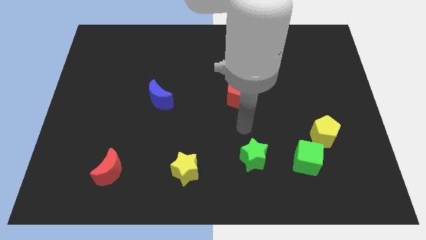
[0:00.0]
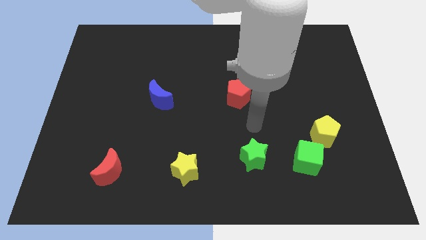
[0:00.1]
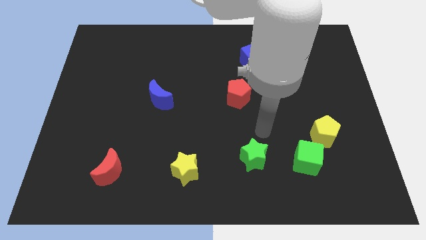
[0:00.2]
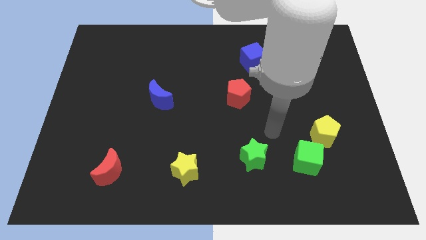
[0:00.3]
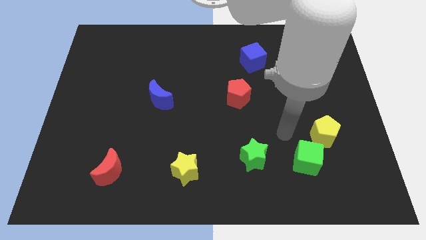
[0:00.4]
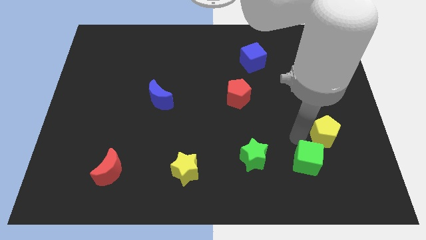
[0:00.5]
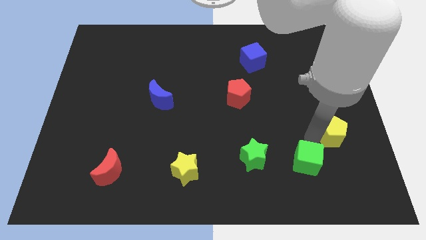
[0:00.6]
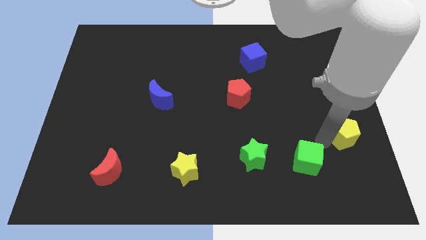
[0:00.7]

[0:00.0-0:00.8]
separate the green cube from the yellow pentagon

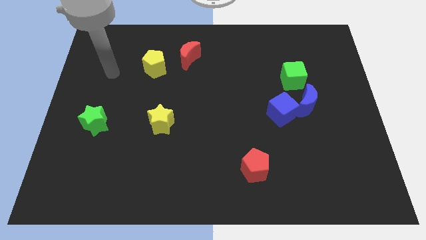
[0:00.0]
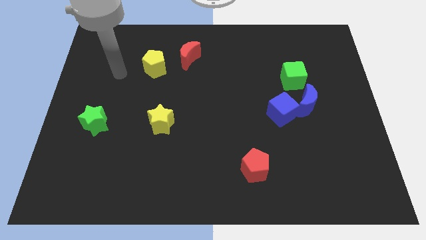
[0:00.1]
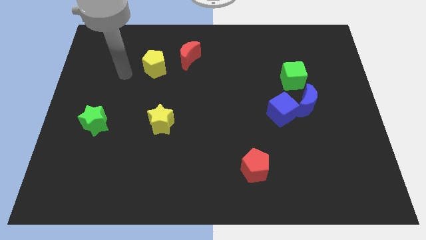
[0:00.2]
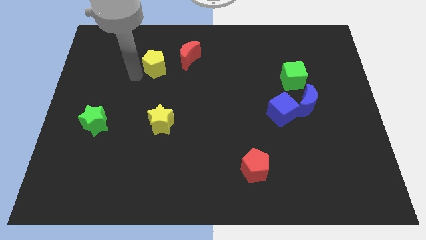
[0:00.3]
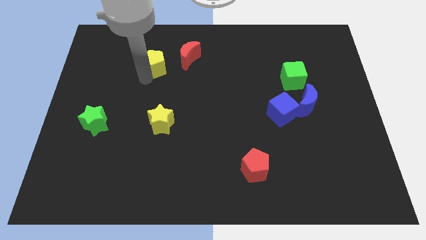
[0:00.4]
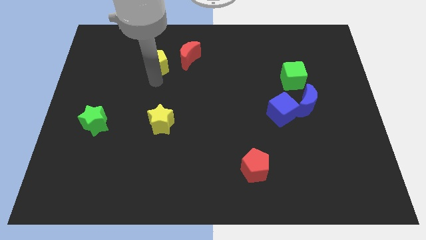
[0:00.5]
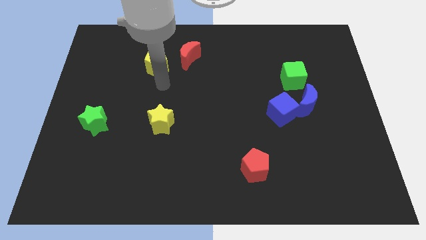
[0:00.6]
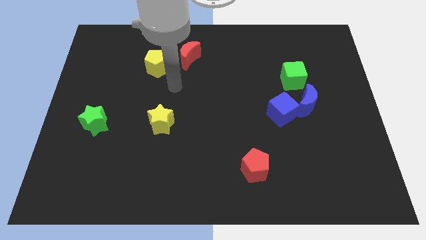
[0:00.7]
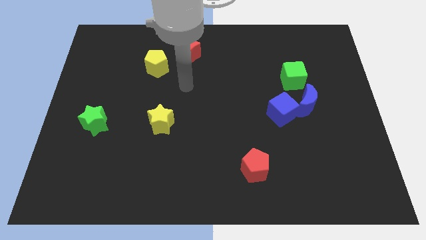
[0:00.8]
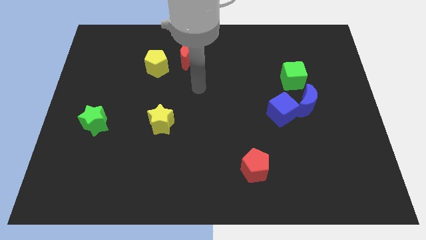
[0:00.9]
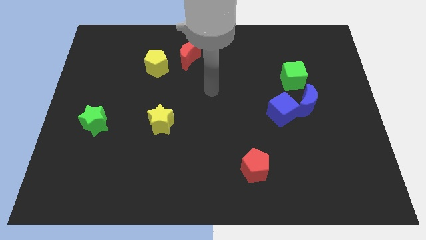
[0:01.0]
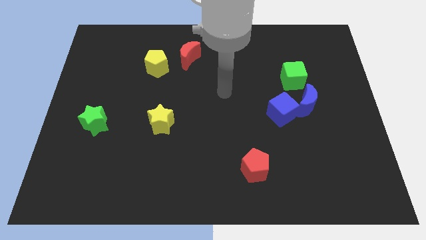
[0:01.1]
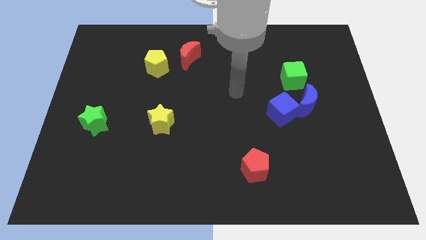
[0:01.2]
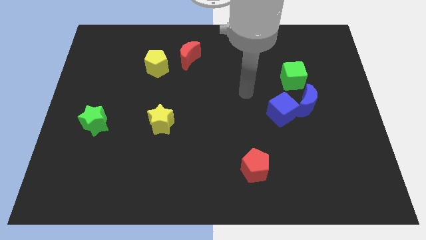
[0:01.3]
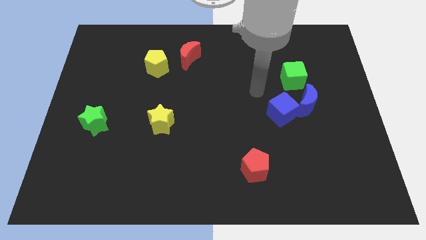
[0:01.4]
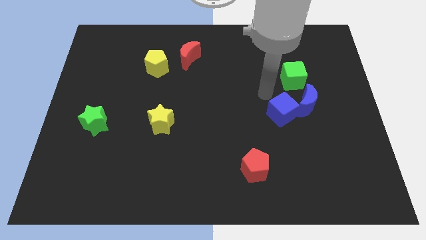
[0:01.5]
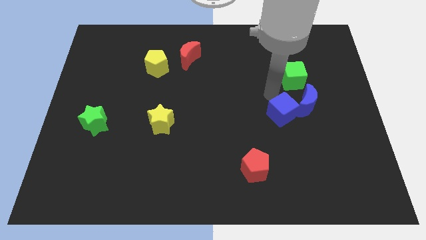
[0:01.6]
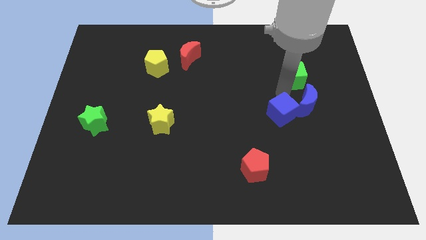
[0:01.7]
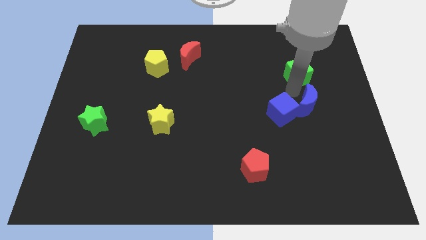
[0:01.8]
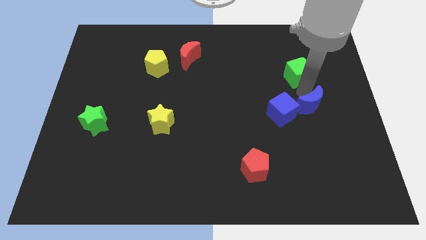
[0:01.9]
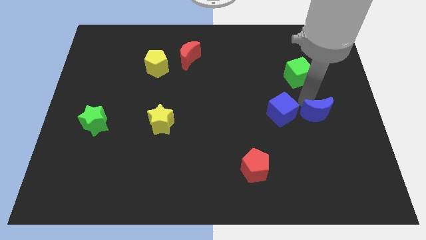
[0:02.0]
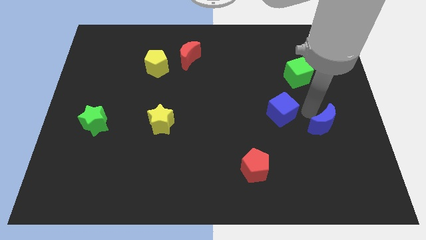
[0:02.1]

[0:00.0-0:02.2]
pull the blue cube apart from the blue moon

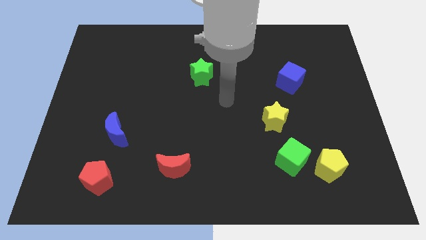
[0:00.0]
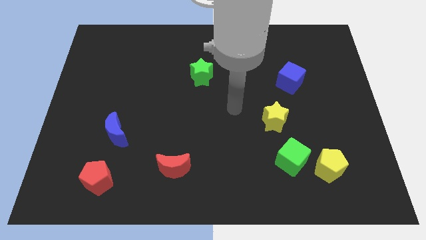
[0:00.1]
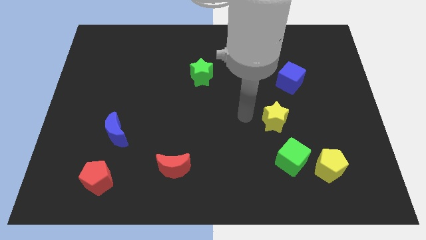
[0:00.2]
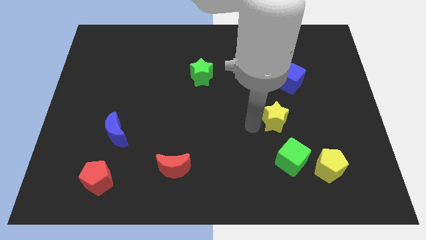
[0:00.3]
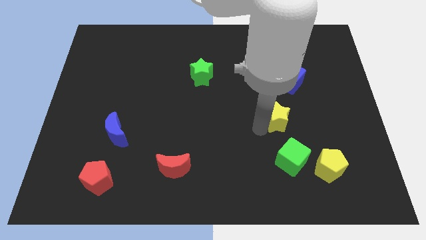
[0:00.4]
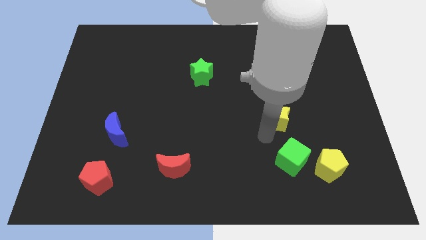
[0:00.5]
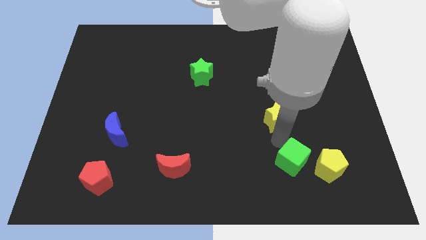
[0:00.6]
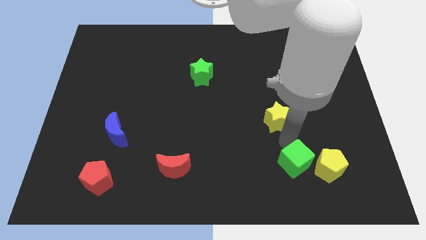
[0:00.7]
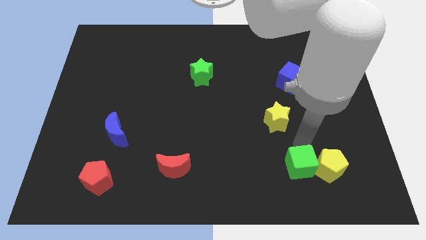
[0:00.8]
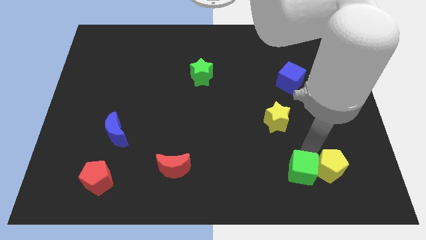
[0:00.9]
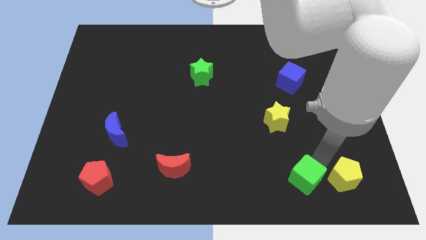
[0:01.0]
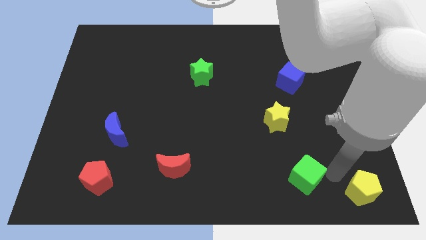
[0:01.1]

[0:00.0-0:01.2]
pull the green cube apart from the yellow pentagon

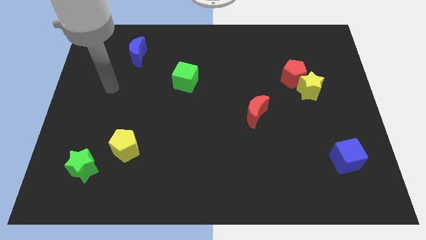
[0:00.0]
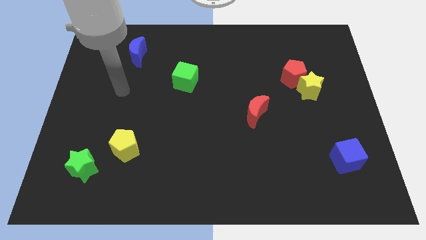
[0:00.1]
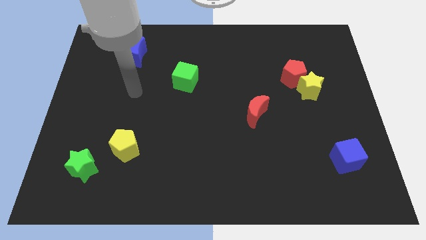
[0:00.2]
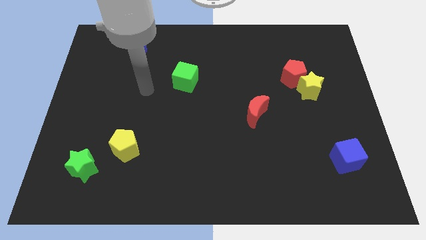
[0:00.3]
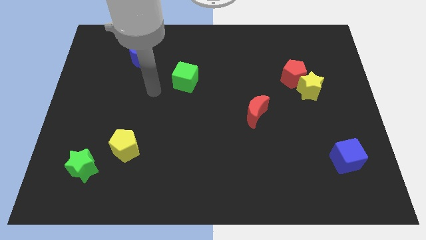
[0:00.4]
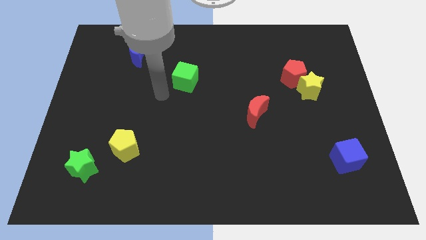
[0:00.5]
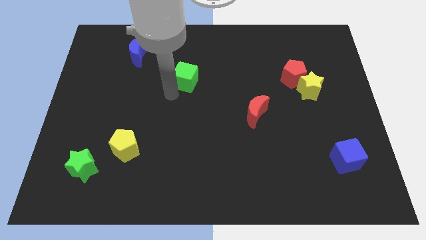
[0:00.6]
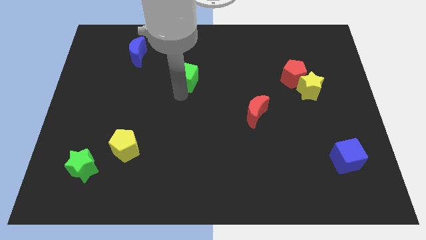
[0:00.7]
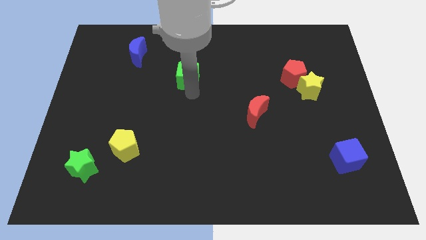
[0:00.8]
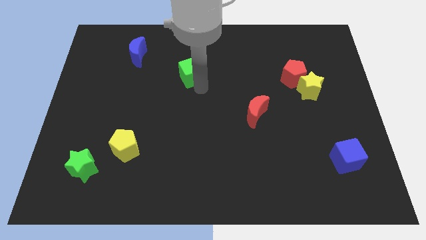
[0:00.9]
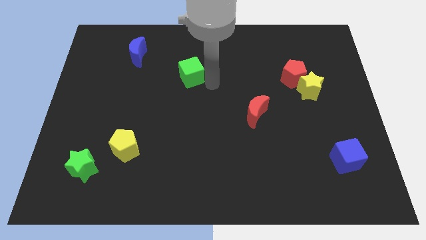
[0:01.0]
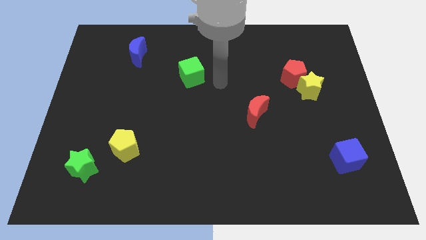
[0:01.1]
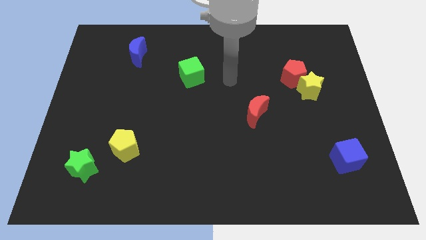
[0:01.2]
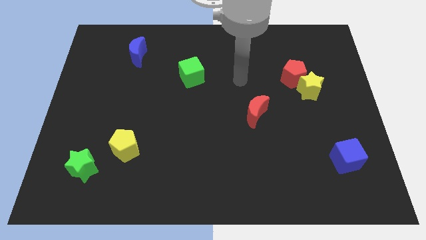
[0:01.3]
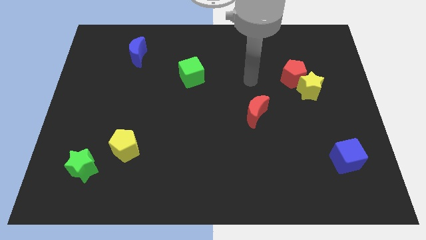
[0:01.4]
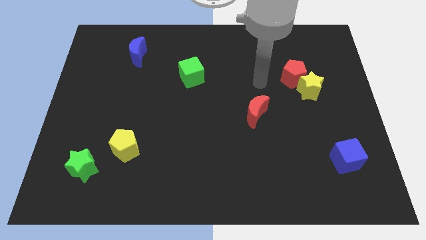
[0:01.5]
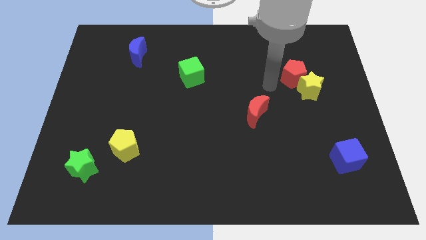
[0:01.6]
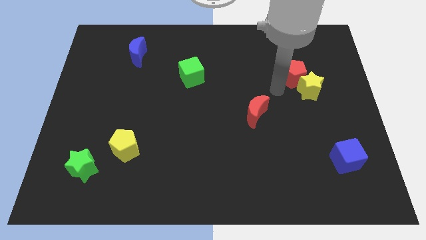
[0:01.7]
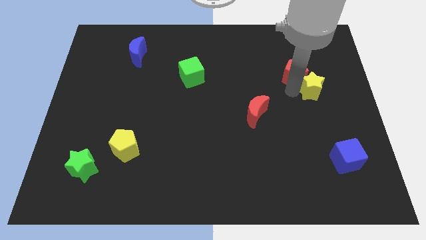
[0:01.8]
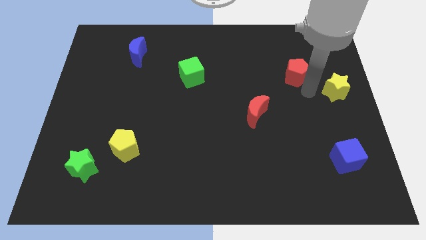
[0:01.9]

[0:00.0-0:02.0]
move the red pentagon away from the yellow star

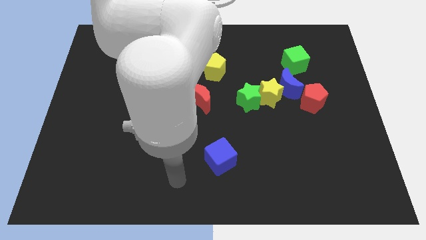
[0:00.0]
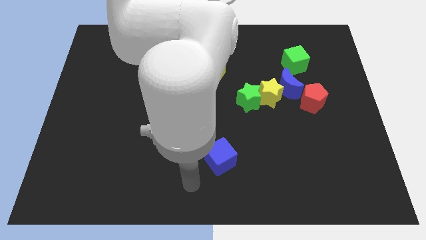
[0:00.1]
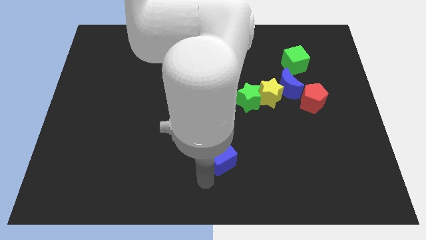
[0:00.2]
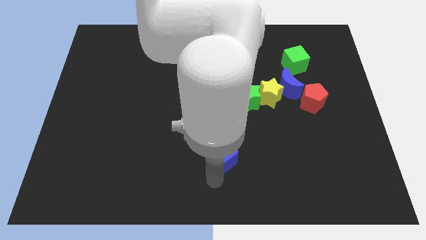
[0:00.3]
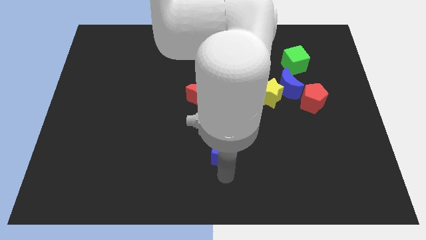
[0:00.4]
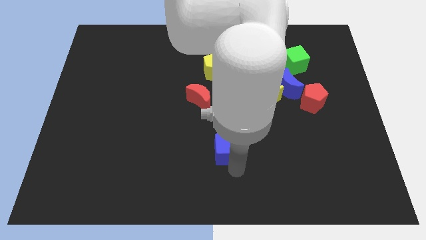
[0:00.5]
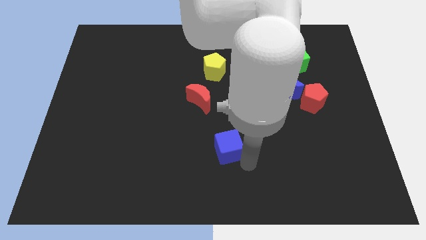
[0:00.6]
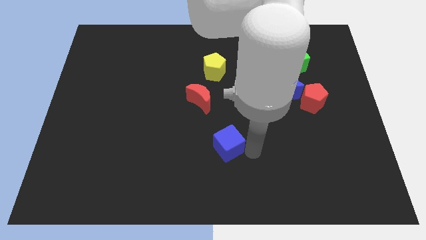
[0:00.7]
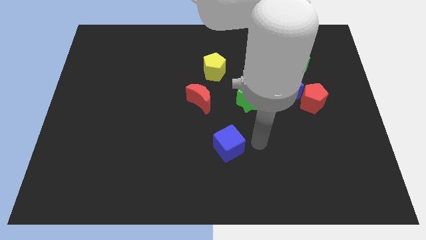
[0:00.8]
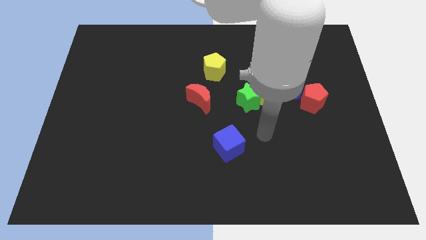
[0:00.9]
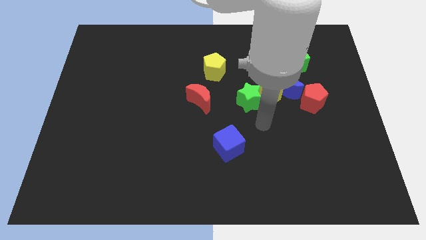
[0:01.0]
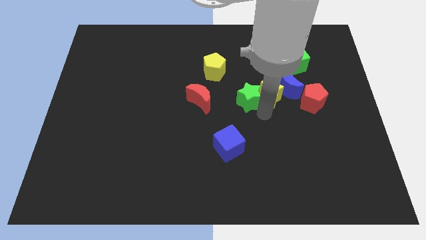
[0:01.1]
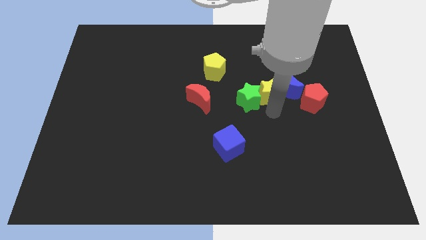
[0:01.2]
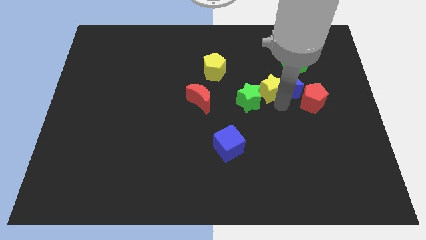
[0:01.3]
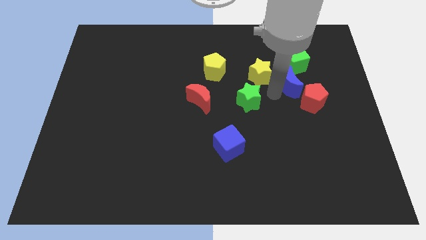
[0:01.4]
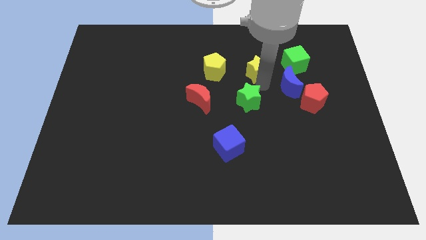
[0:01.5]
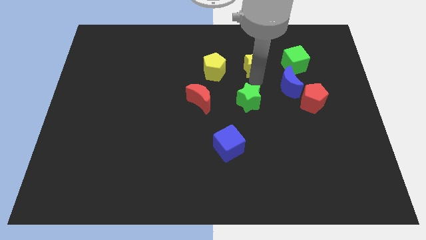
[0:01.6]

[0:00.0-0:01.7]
separate the green star from the yellow star

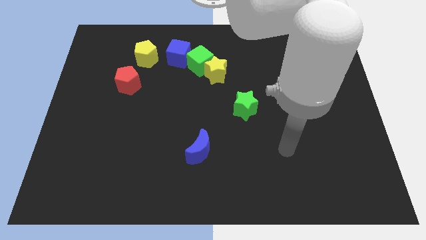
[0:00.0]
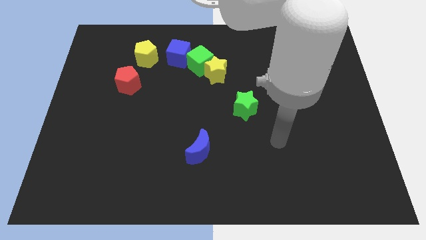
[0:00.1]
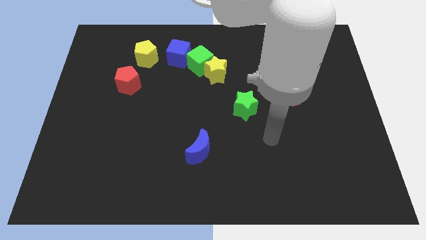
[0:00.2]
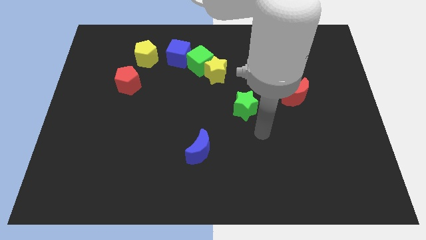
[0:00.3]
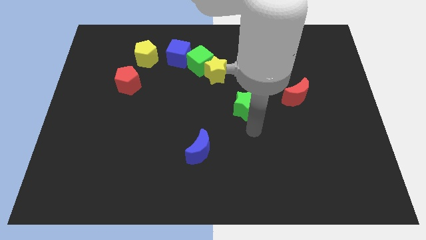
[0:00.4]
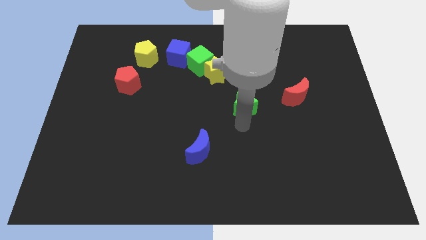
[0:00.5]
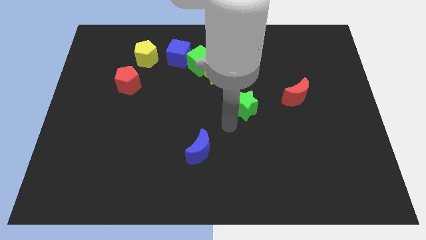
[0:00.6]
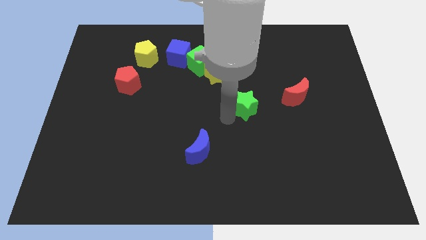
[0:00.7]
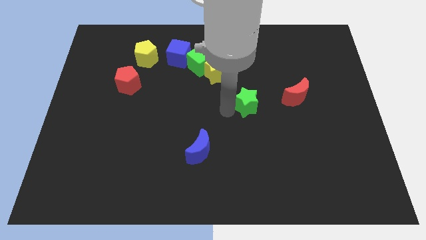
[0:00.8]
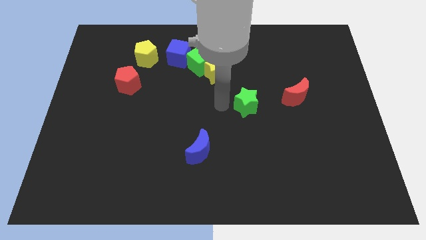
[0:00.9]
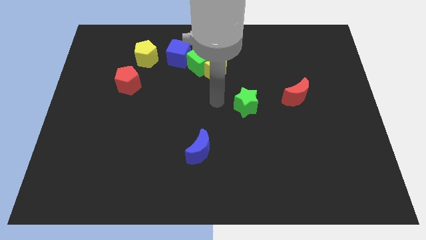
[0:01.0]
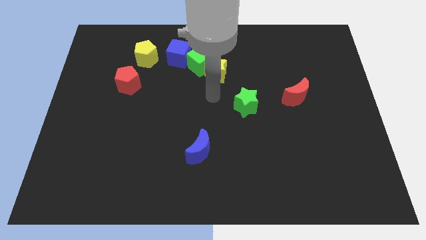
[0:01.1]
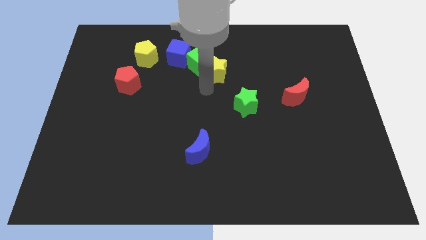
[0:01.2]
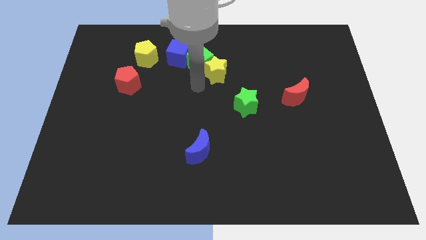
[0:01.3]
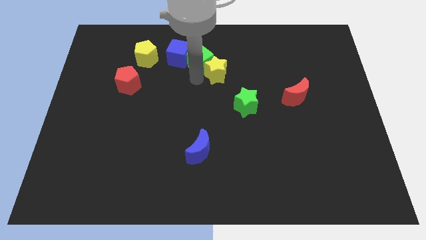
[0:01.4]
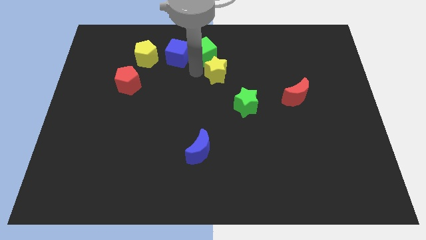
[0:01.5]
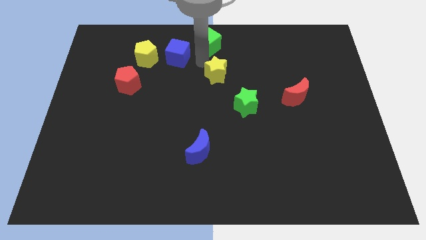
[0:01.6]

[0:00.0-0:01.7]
move the yellow star away from the green cube
